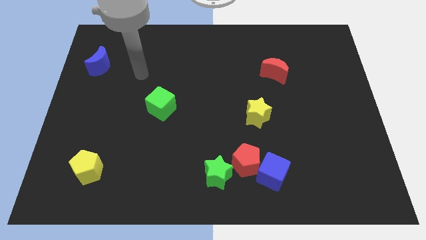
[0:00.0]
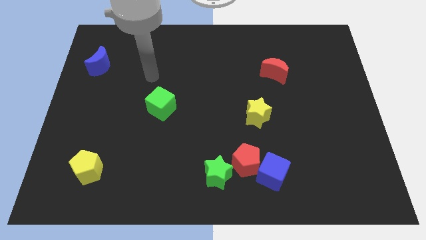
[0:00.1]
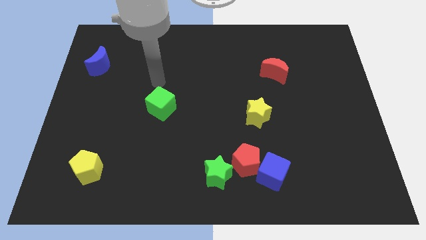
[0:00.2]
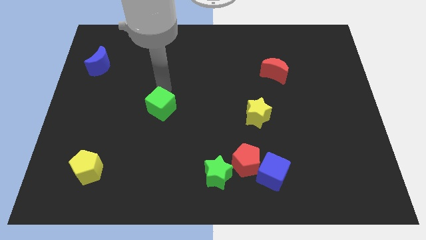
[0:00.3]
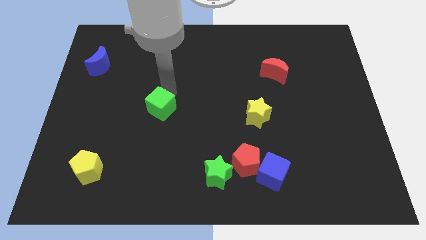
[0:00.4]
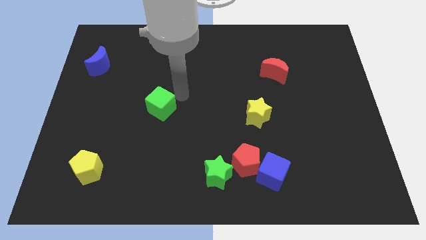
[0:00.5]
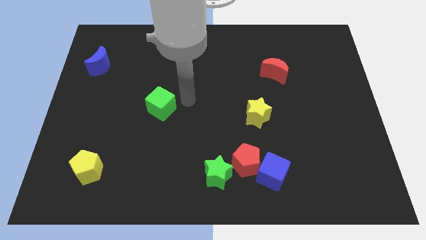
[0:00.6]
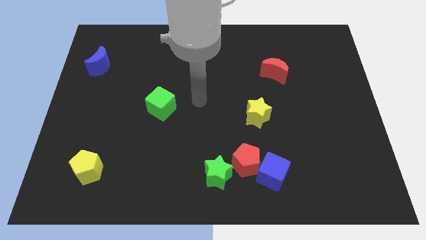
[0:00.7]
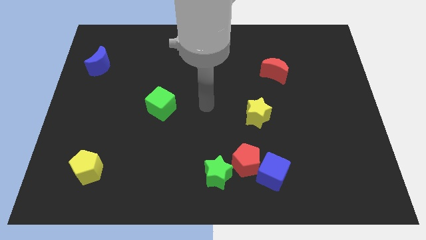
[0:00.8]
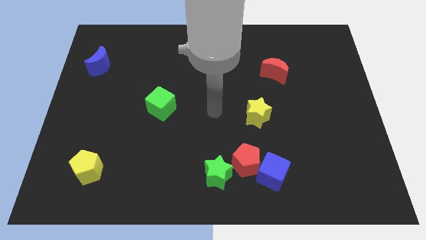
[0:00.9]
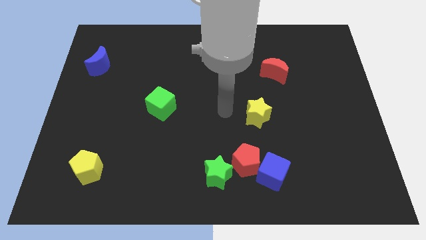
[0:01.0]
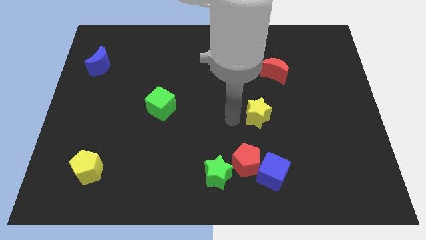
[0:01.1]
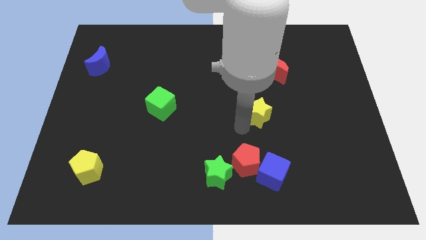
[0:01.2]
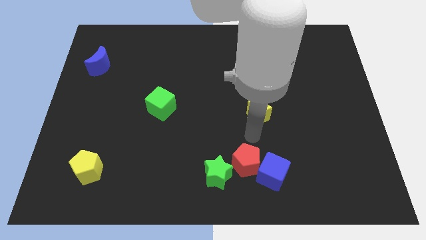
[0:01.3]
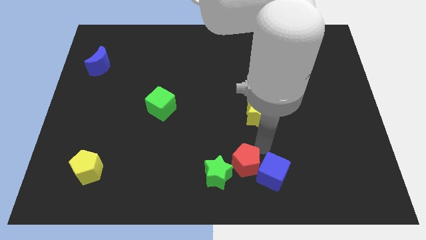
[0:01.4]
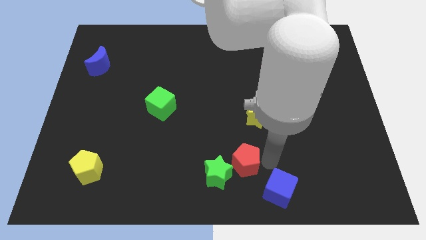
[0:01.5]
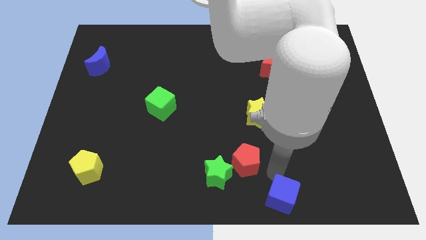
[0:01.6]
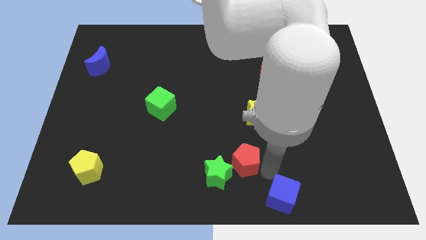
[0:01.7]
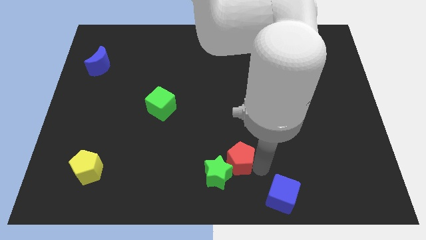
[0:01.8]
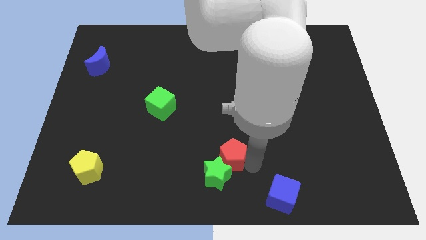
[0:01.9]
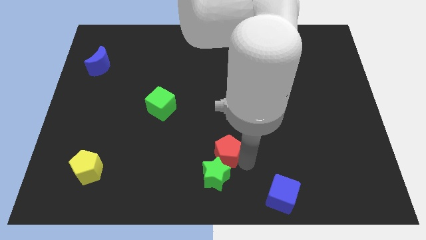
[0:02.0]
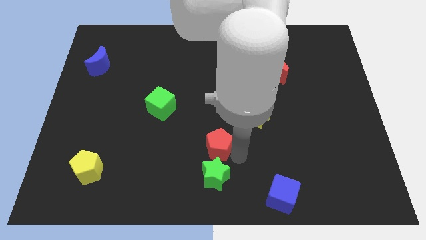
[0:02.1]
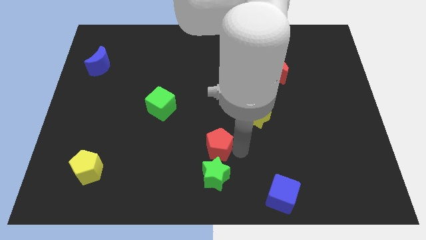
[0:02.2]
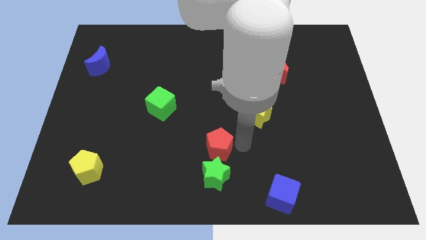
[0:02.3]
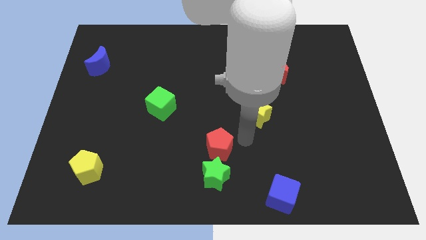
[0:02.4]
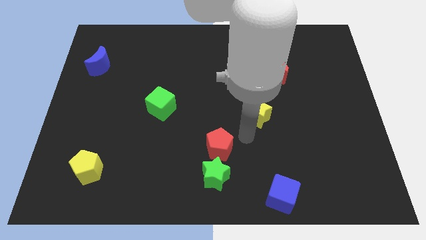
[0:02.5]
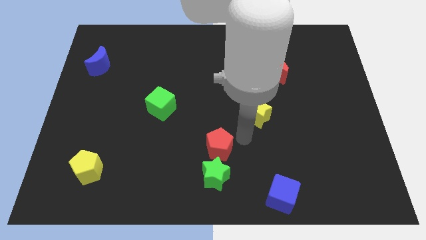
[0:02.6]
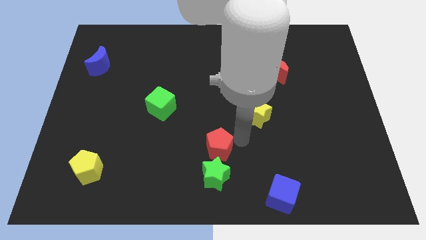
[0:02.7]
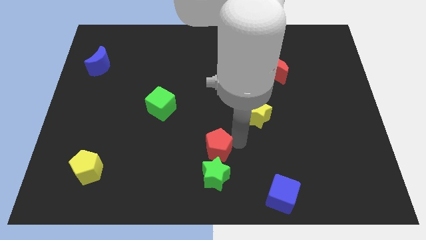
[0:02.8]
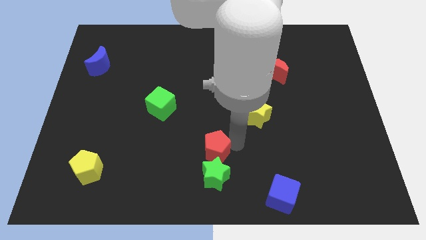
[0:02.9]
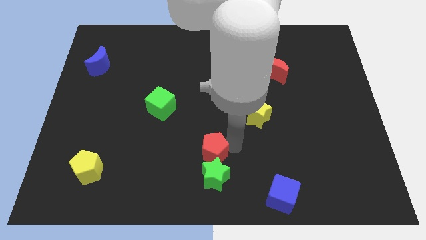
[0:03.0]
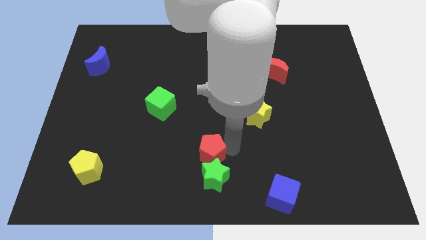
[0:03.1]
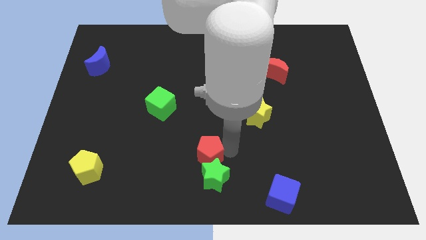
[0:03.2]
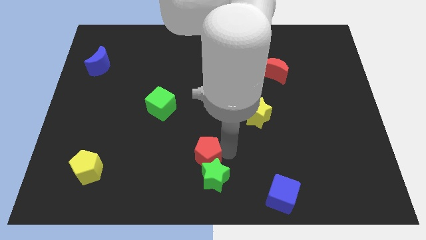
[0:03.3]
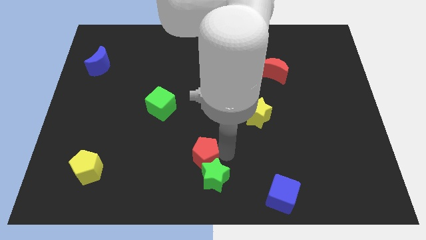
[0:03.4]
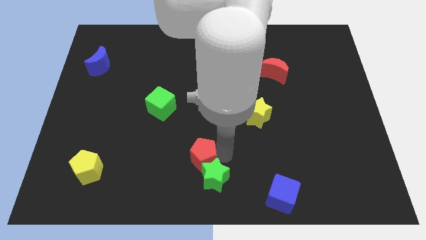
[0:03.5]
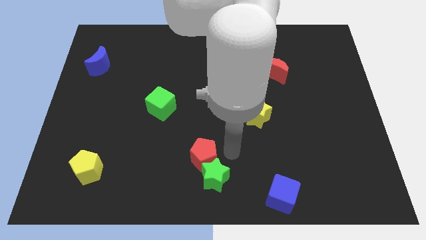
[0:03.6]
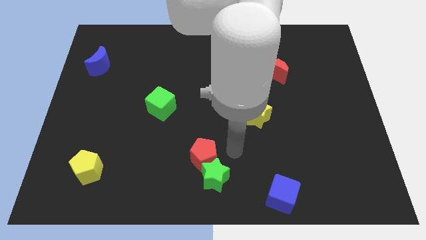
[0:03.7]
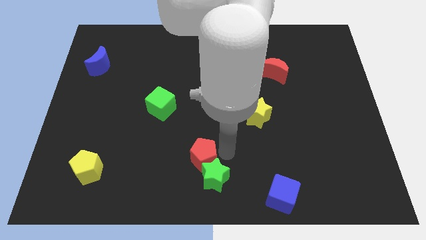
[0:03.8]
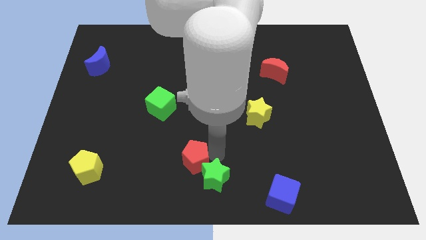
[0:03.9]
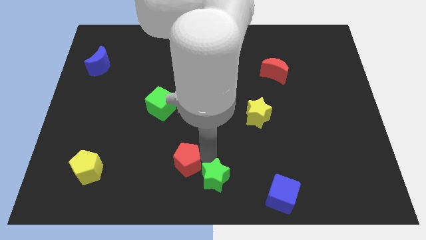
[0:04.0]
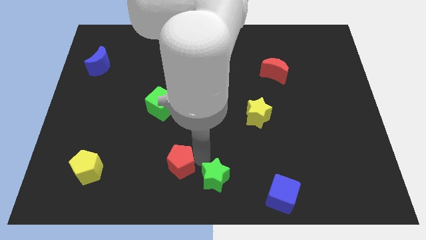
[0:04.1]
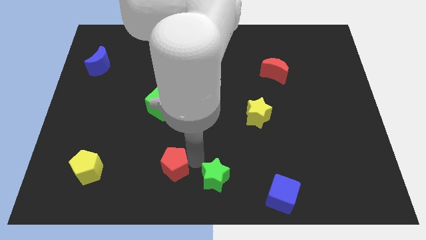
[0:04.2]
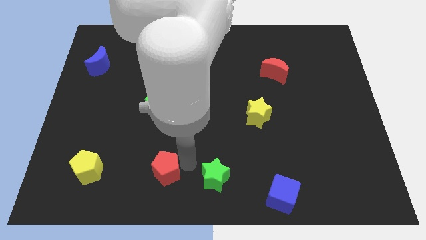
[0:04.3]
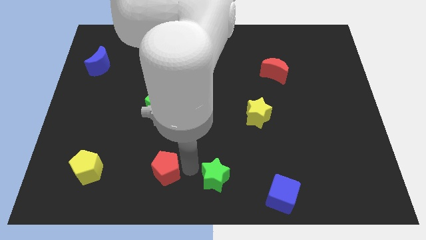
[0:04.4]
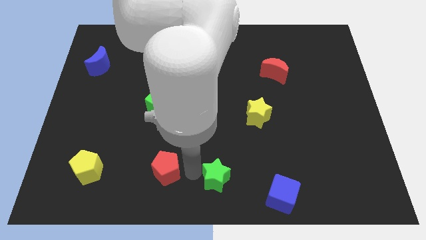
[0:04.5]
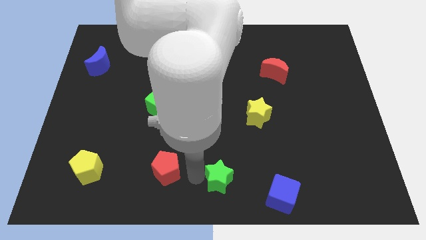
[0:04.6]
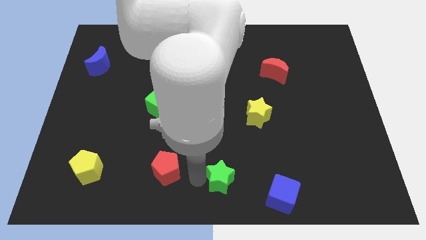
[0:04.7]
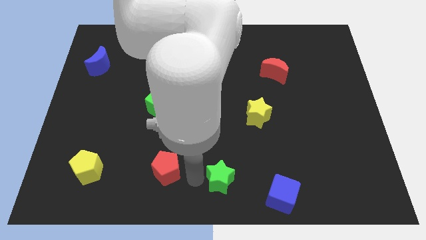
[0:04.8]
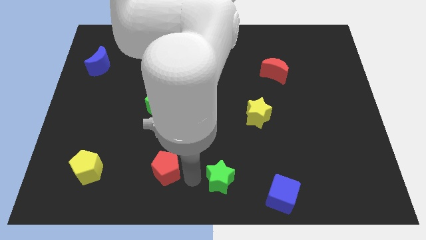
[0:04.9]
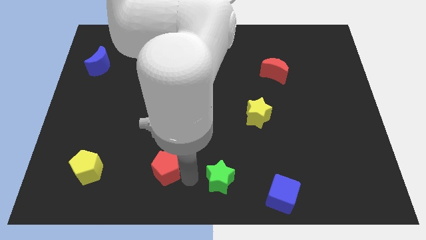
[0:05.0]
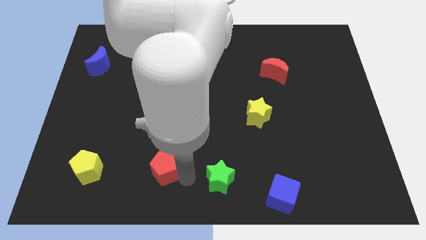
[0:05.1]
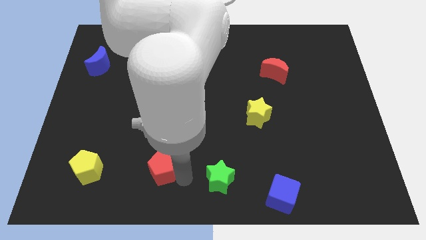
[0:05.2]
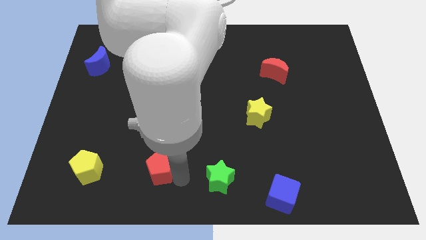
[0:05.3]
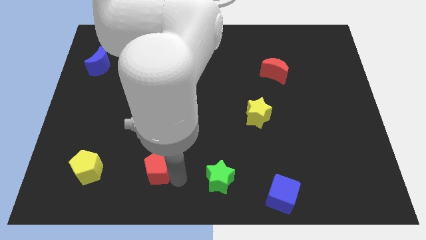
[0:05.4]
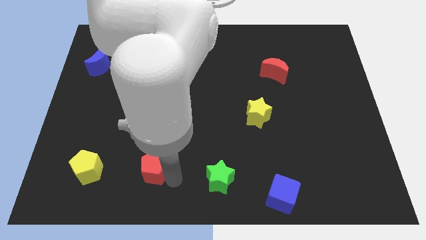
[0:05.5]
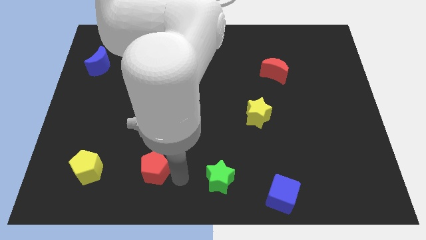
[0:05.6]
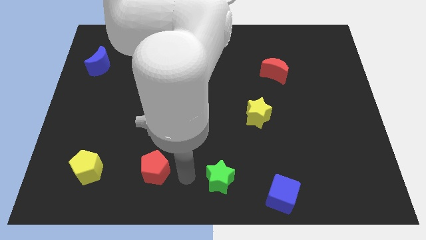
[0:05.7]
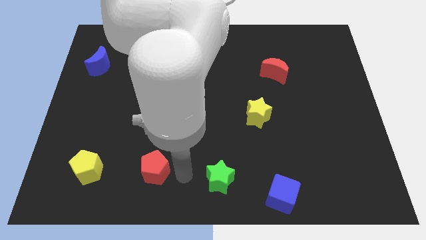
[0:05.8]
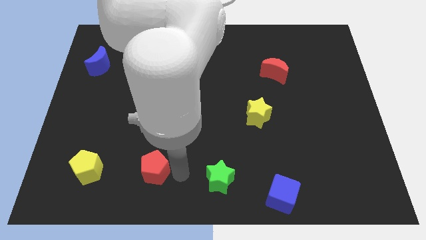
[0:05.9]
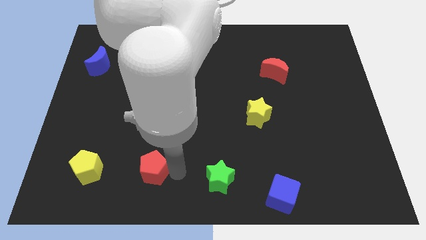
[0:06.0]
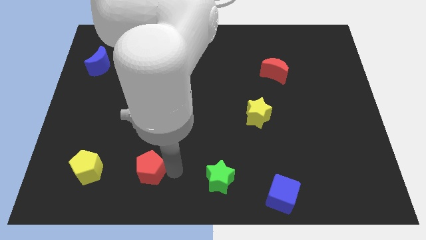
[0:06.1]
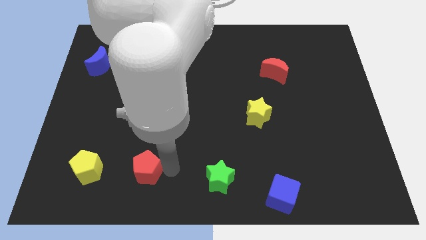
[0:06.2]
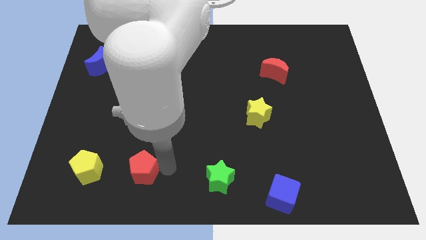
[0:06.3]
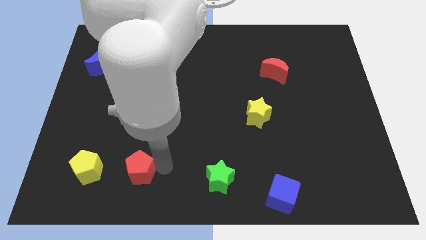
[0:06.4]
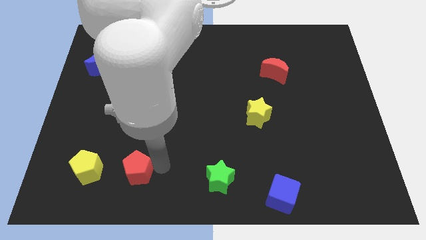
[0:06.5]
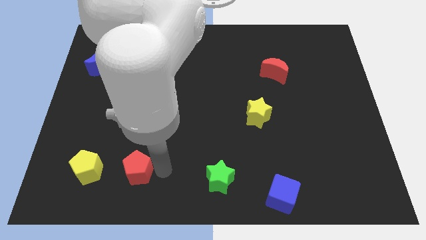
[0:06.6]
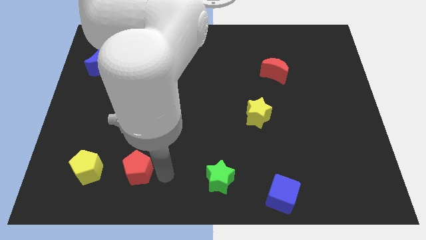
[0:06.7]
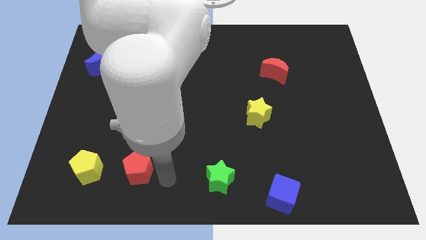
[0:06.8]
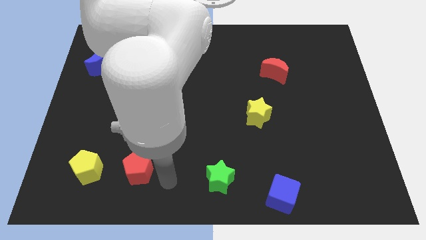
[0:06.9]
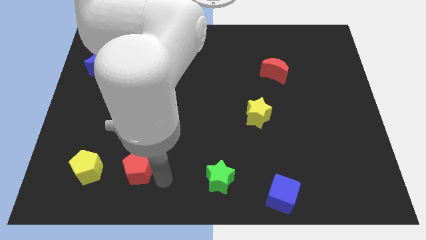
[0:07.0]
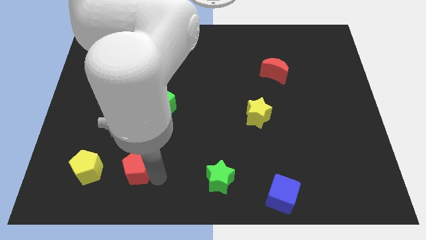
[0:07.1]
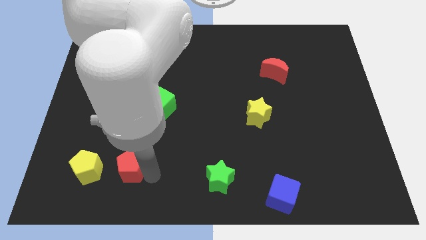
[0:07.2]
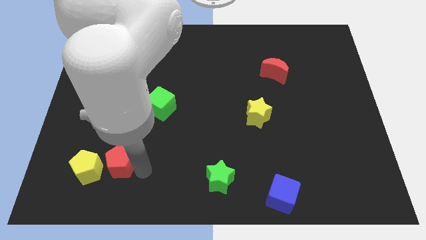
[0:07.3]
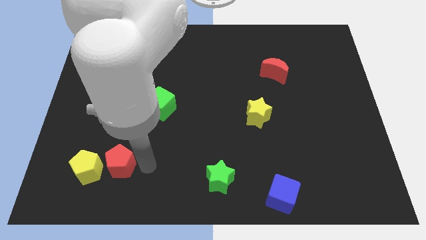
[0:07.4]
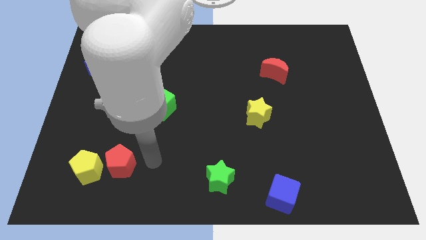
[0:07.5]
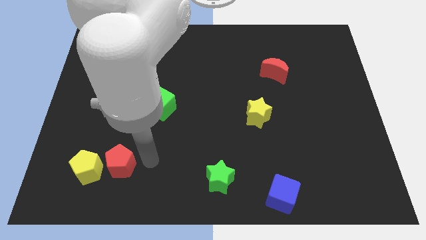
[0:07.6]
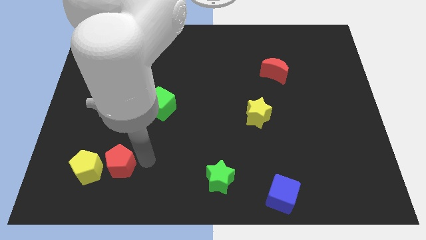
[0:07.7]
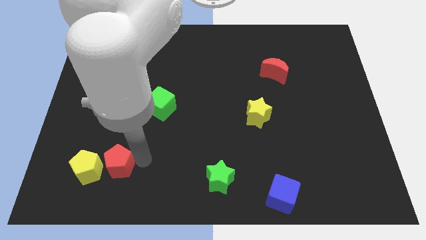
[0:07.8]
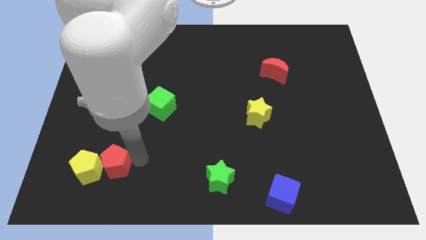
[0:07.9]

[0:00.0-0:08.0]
put the red pentagon towards the yellow pentagon
